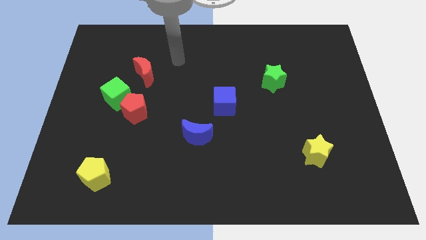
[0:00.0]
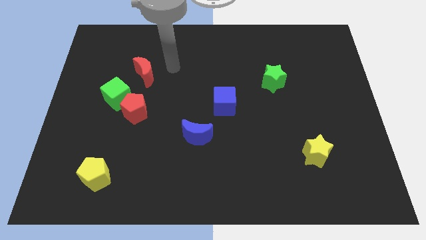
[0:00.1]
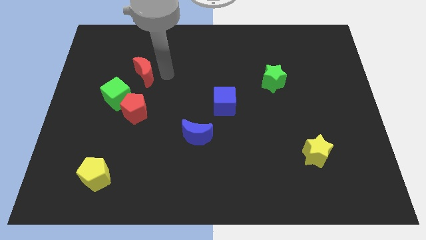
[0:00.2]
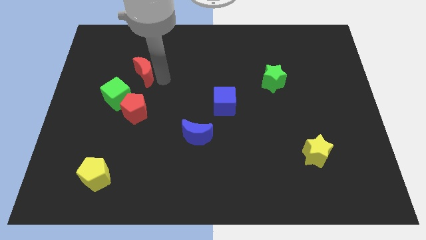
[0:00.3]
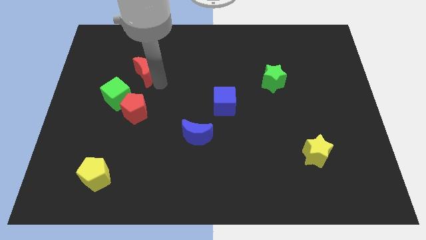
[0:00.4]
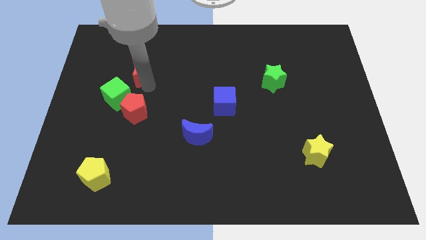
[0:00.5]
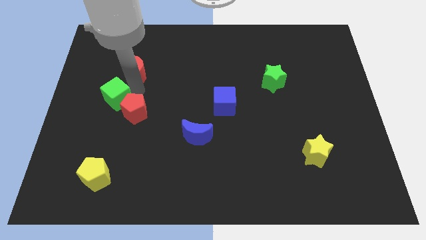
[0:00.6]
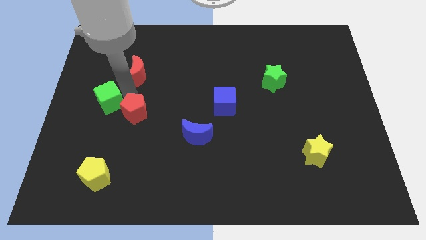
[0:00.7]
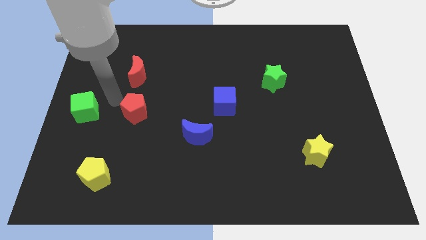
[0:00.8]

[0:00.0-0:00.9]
pull the red pentagon apart from the green cube

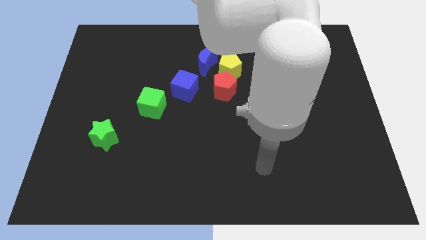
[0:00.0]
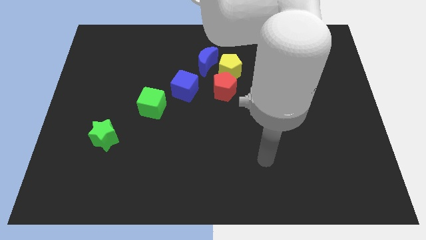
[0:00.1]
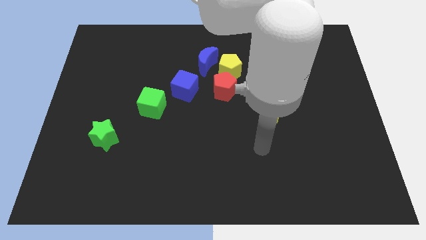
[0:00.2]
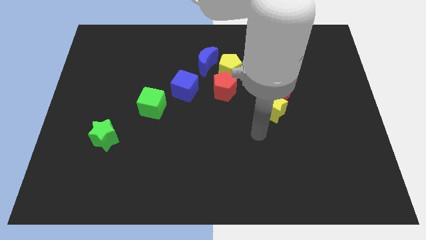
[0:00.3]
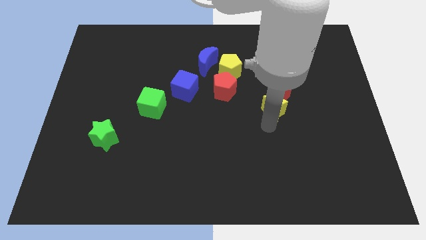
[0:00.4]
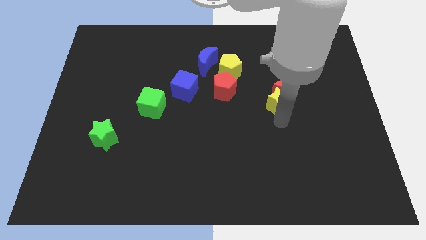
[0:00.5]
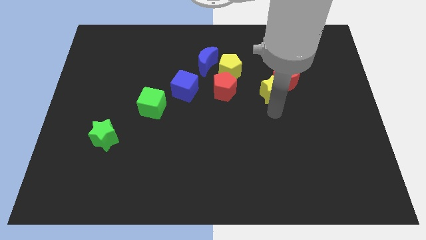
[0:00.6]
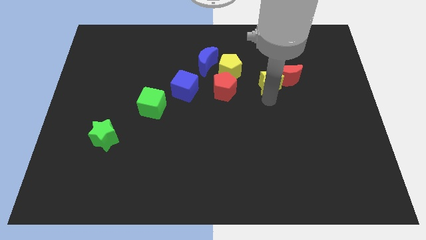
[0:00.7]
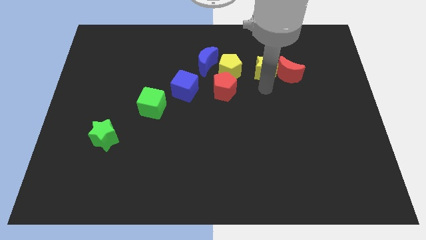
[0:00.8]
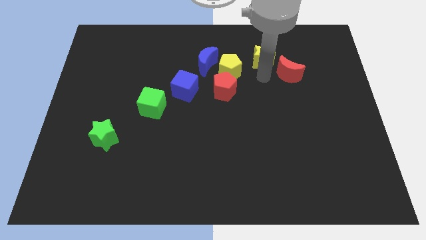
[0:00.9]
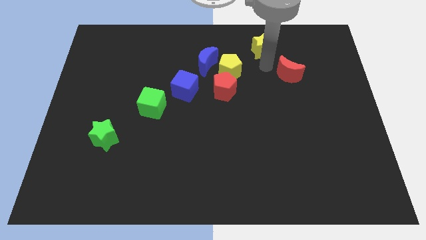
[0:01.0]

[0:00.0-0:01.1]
separate the red moon from the yellow star

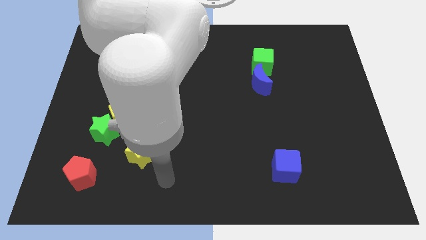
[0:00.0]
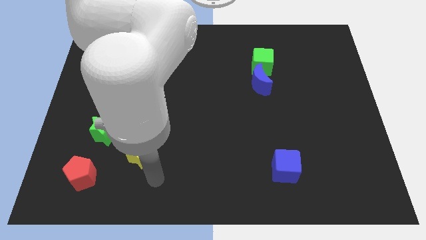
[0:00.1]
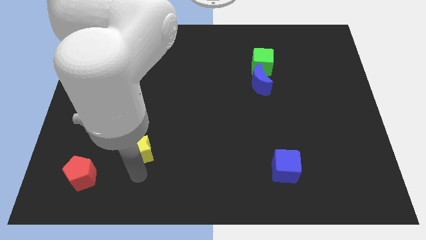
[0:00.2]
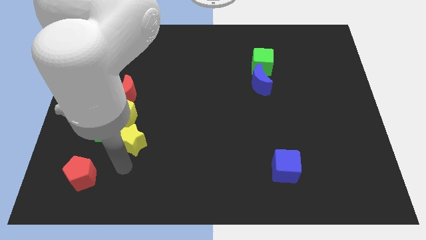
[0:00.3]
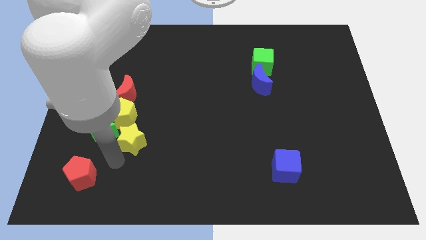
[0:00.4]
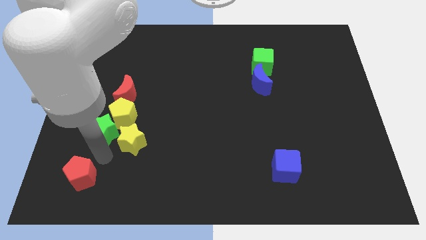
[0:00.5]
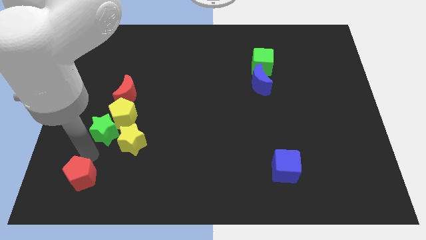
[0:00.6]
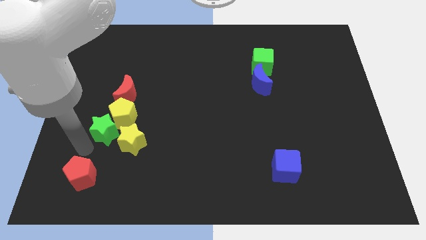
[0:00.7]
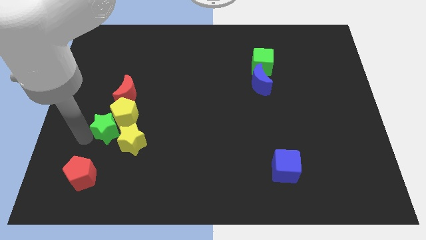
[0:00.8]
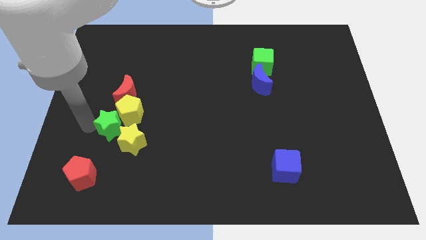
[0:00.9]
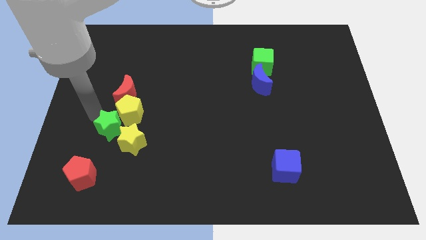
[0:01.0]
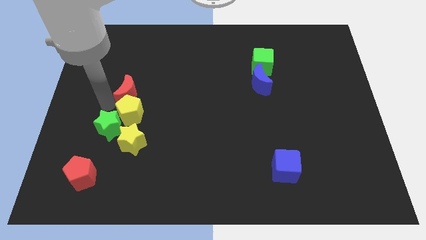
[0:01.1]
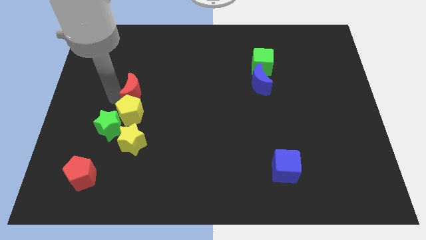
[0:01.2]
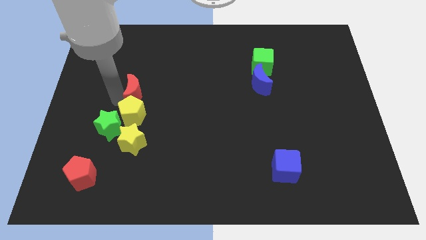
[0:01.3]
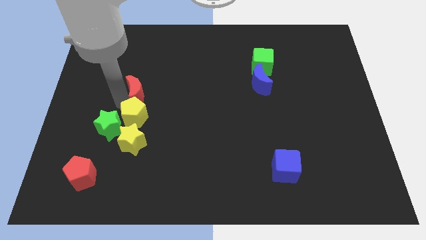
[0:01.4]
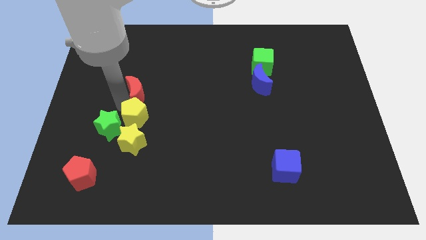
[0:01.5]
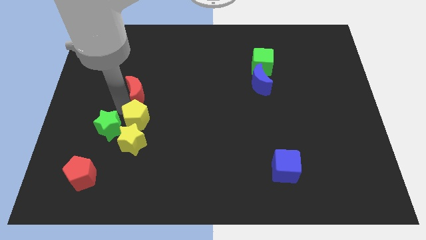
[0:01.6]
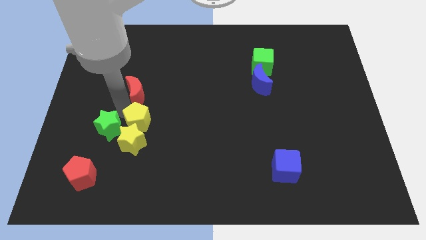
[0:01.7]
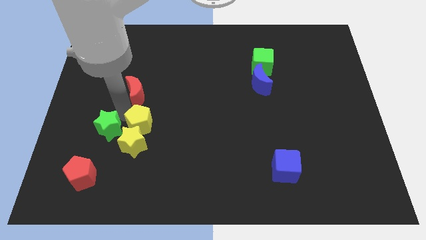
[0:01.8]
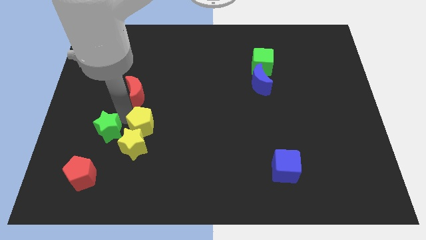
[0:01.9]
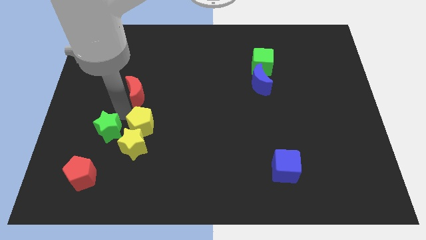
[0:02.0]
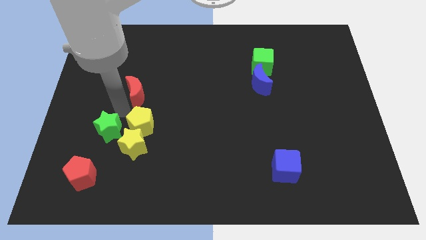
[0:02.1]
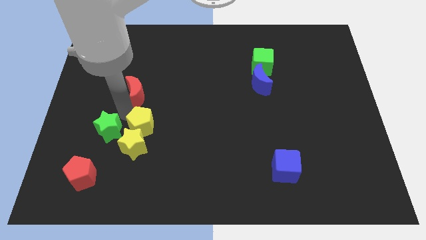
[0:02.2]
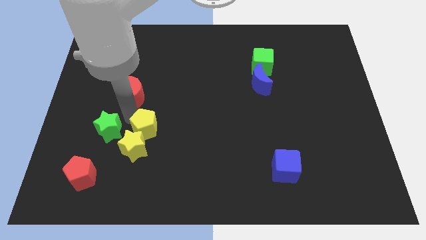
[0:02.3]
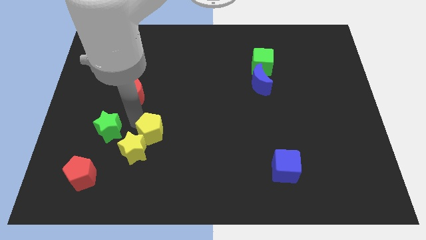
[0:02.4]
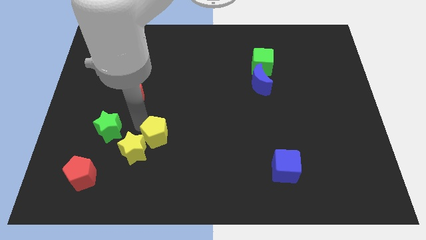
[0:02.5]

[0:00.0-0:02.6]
pull the yellow pentagon apart from the green star and red moon

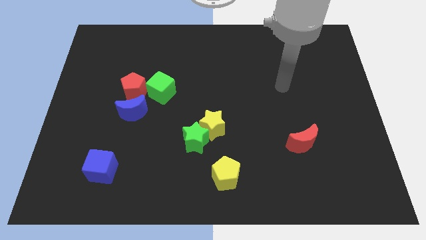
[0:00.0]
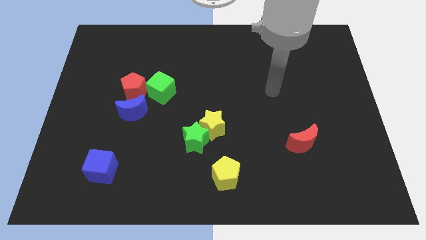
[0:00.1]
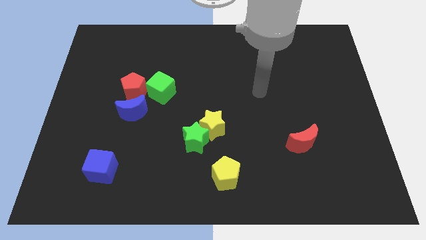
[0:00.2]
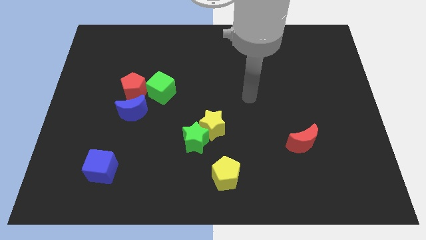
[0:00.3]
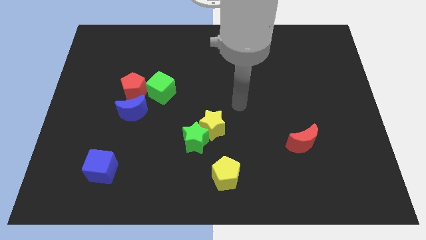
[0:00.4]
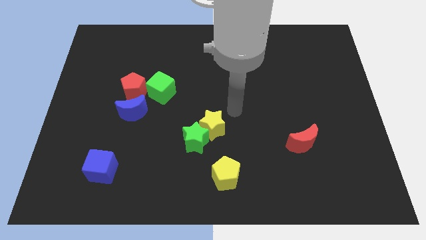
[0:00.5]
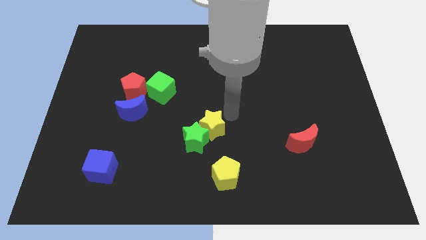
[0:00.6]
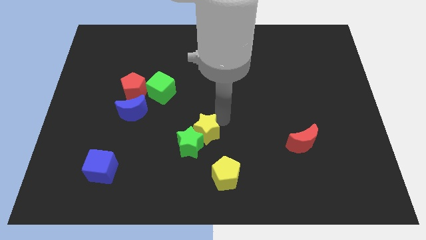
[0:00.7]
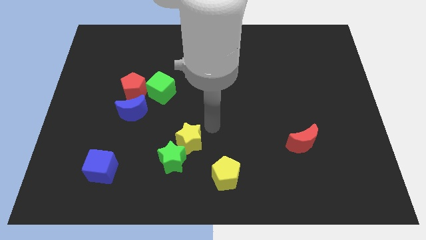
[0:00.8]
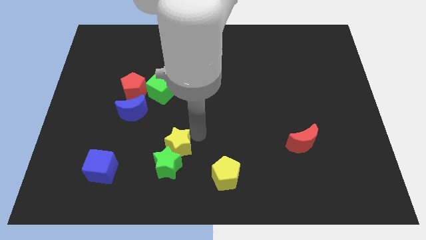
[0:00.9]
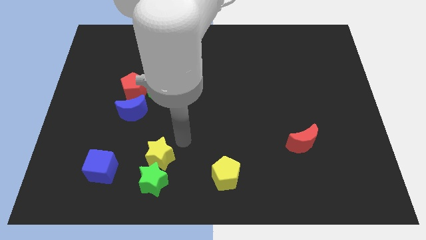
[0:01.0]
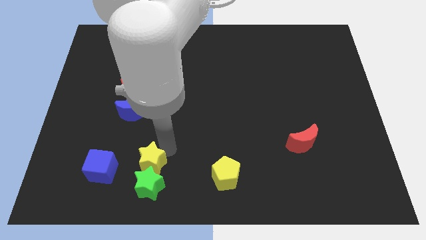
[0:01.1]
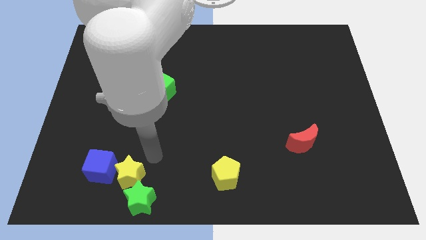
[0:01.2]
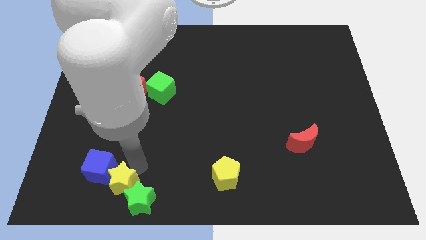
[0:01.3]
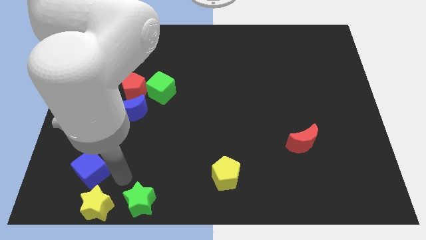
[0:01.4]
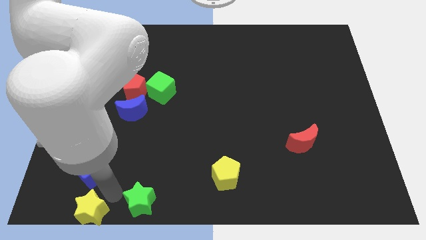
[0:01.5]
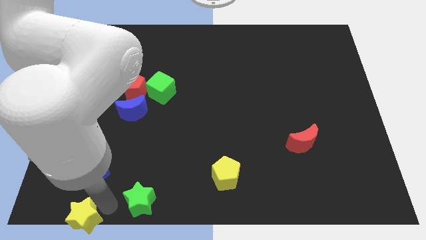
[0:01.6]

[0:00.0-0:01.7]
separate the green star from the yellow star

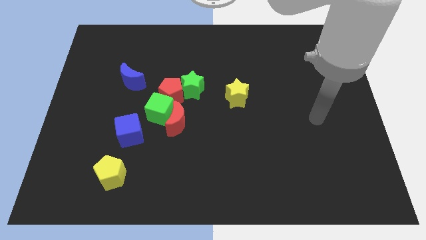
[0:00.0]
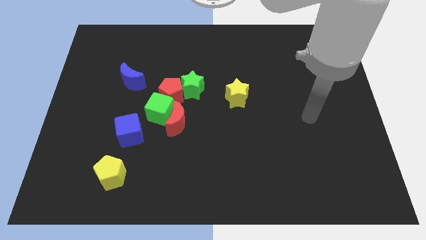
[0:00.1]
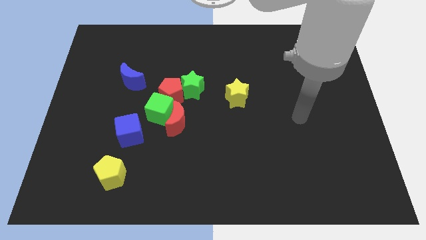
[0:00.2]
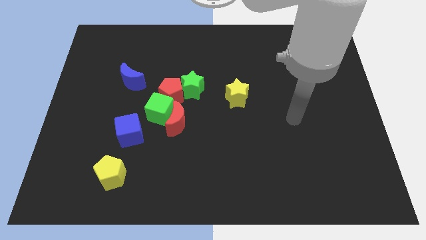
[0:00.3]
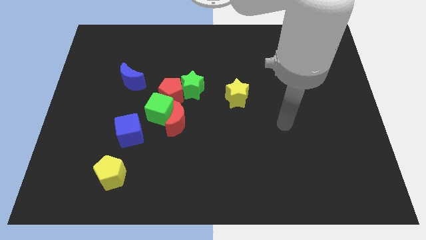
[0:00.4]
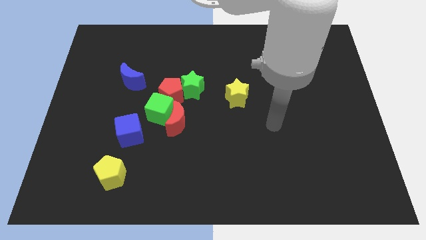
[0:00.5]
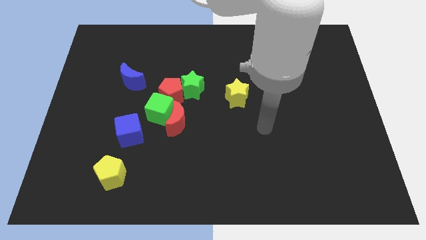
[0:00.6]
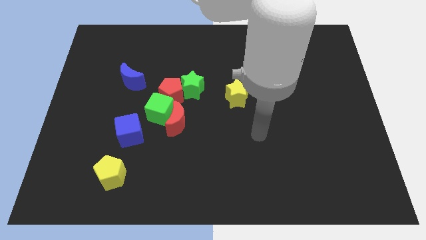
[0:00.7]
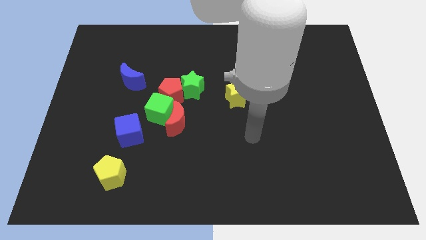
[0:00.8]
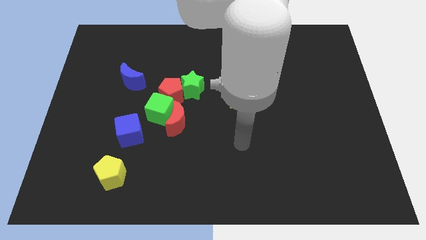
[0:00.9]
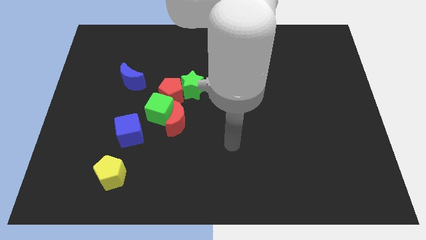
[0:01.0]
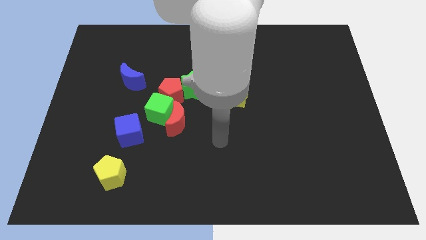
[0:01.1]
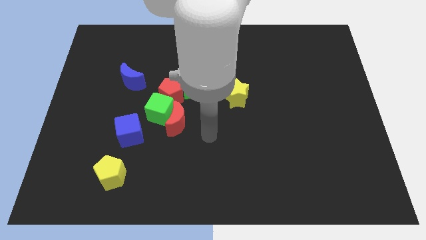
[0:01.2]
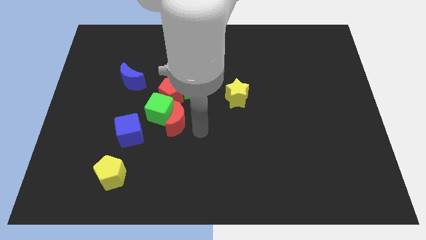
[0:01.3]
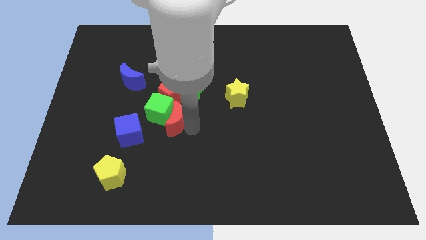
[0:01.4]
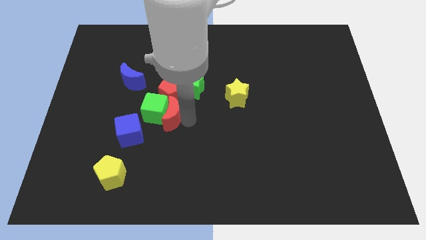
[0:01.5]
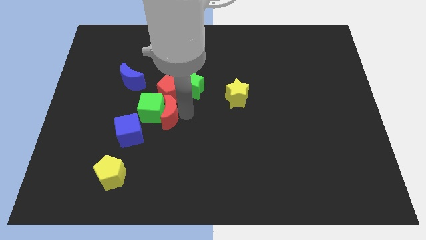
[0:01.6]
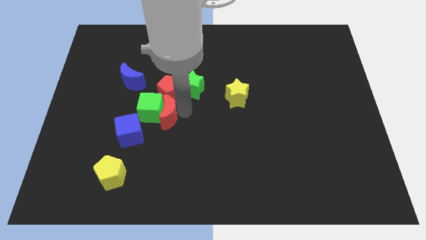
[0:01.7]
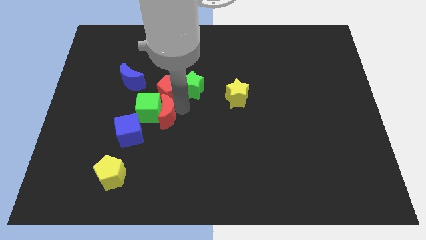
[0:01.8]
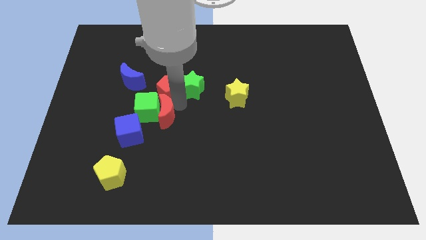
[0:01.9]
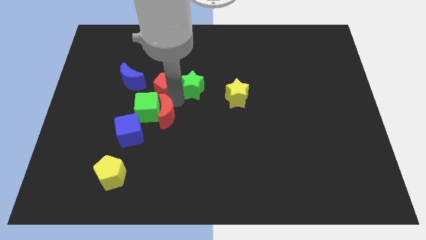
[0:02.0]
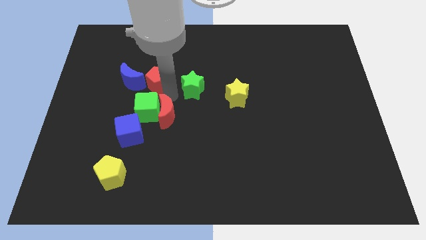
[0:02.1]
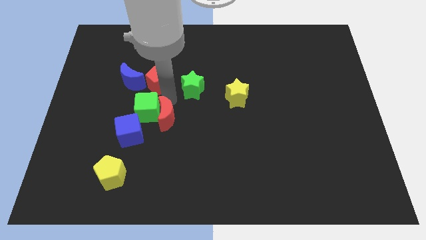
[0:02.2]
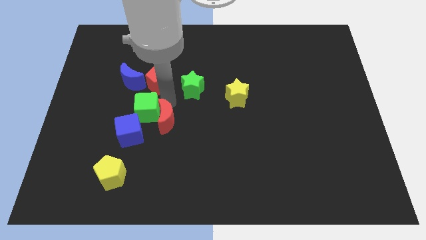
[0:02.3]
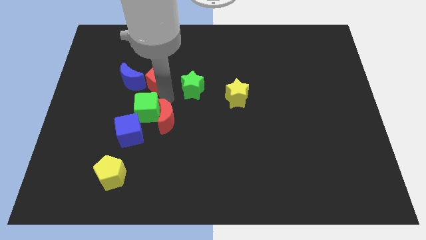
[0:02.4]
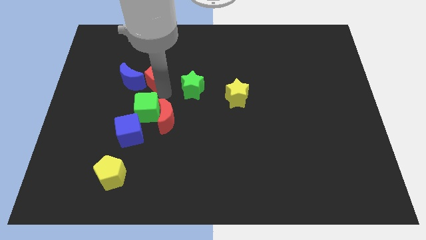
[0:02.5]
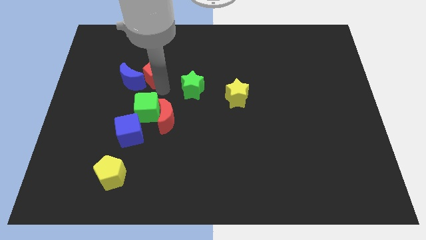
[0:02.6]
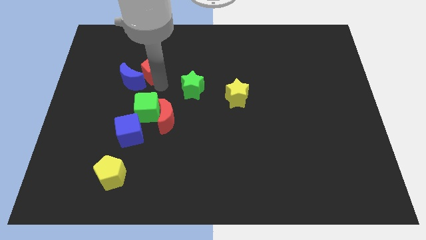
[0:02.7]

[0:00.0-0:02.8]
move the red pentagon away from the group

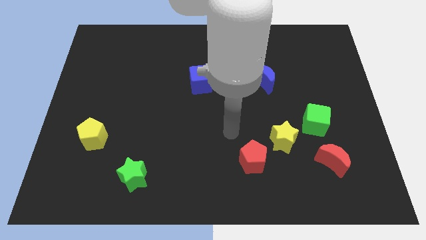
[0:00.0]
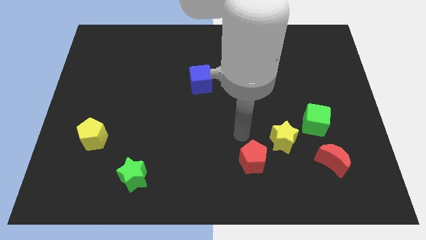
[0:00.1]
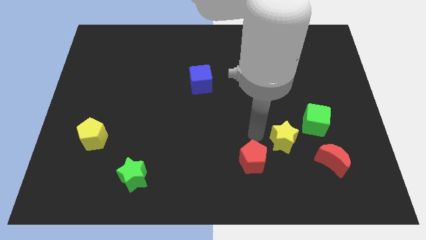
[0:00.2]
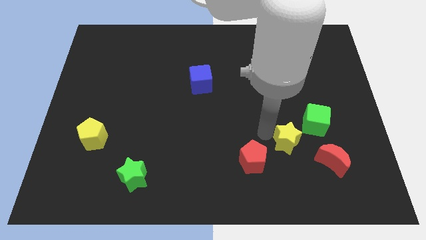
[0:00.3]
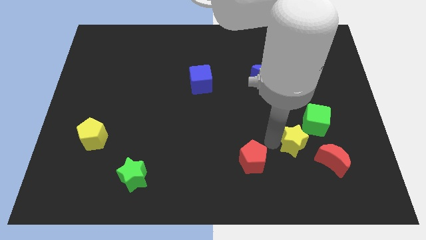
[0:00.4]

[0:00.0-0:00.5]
separate the red pentagon from the yellow star
